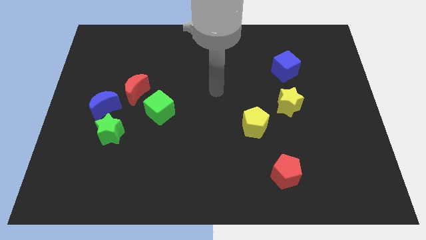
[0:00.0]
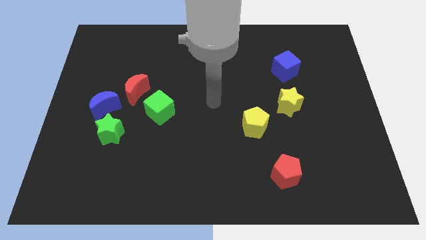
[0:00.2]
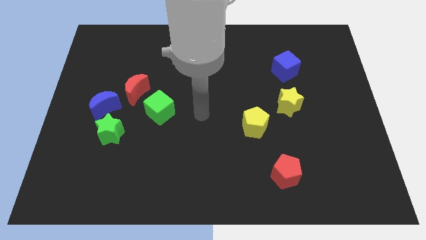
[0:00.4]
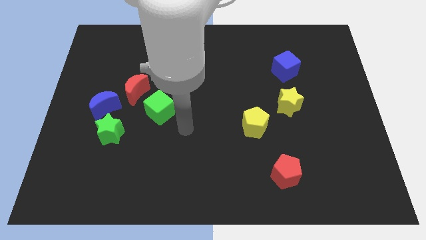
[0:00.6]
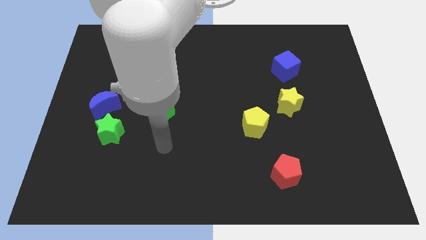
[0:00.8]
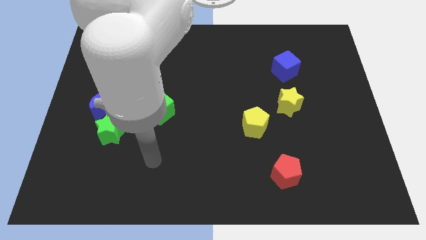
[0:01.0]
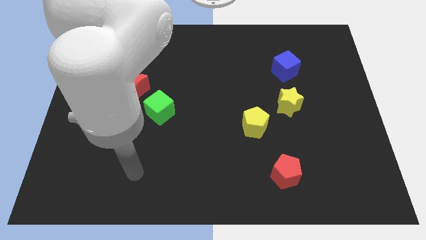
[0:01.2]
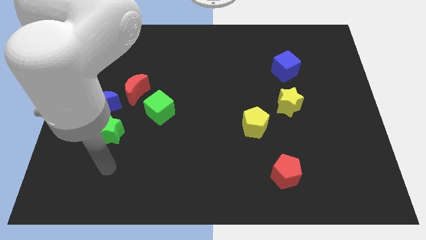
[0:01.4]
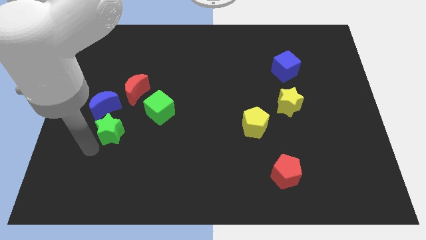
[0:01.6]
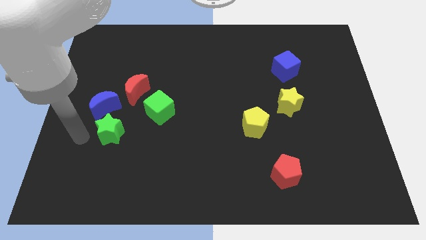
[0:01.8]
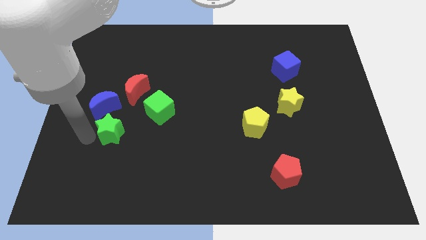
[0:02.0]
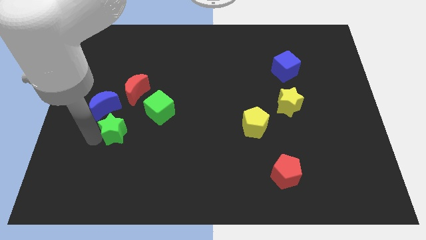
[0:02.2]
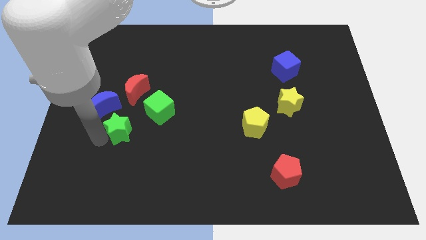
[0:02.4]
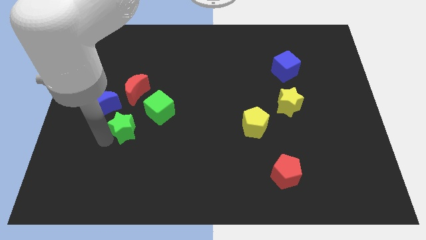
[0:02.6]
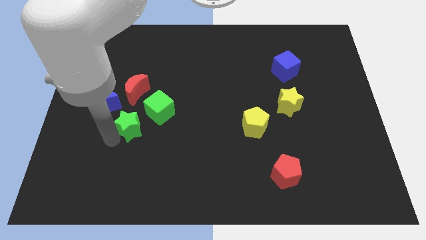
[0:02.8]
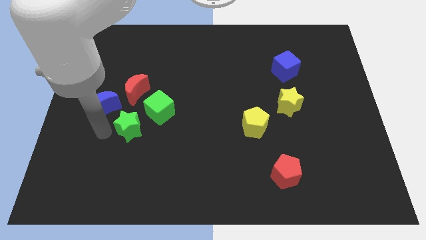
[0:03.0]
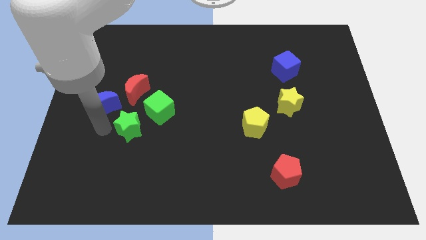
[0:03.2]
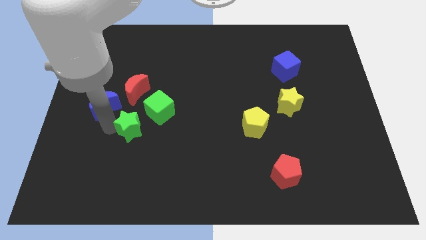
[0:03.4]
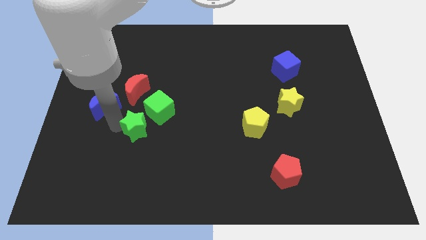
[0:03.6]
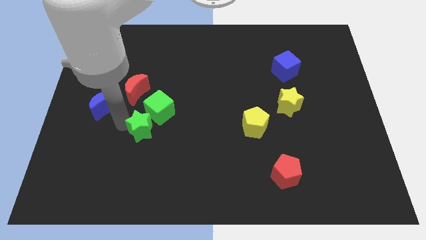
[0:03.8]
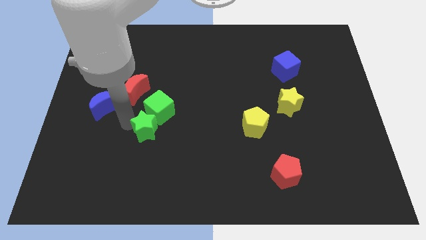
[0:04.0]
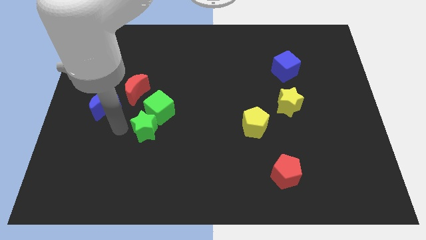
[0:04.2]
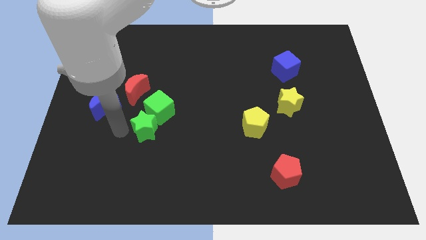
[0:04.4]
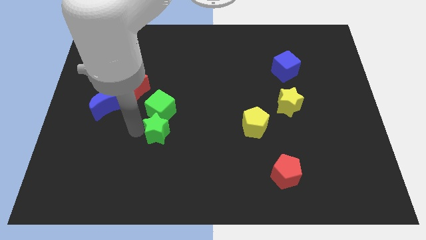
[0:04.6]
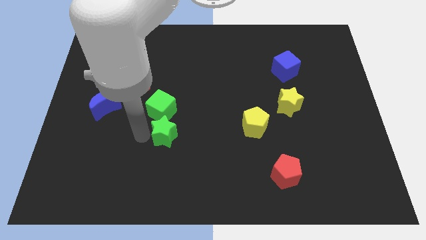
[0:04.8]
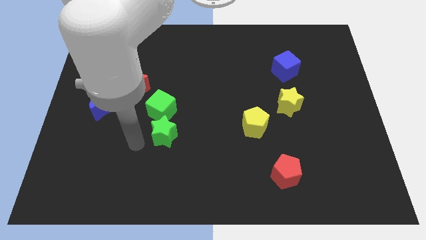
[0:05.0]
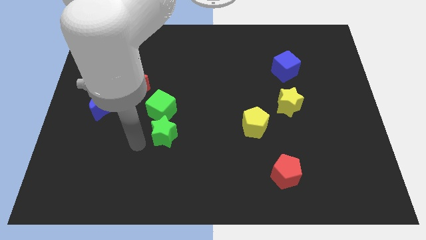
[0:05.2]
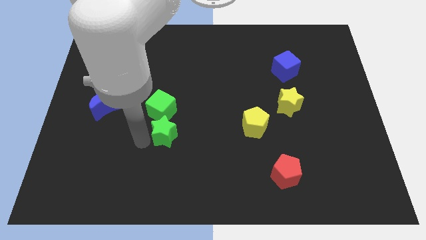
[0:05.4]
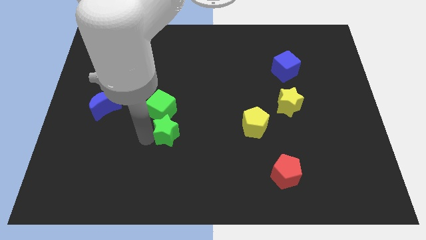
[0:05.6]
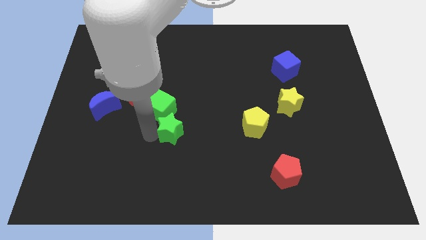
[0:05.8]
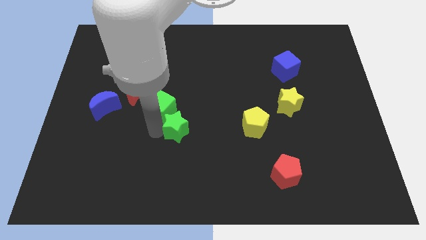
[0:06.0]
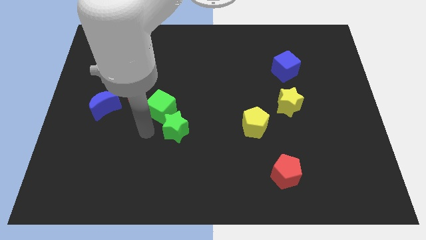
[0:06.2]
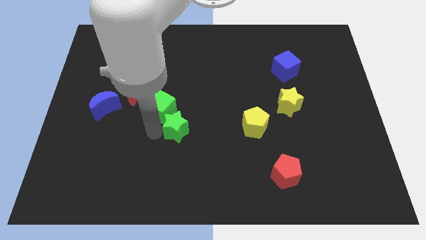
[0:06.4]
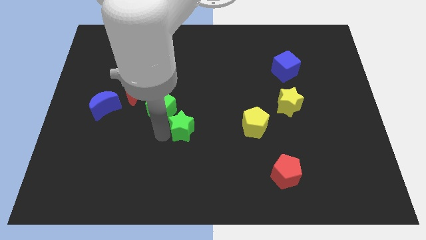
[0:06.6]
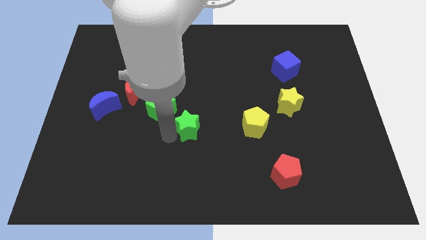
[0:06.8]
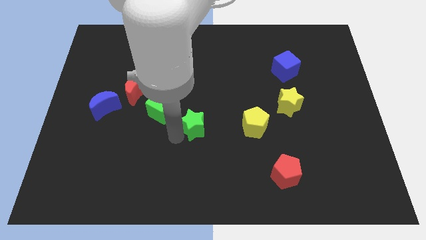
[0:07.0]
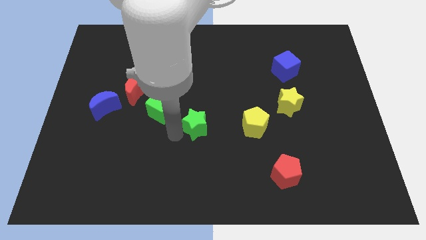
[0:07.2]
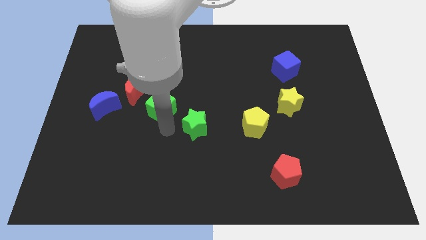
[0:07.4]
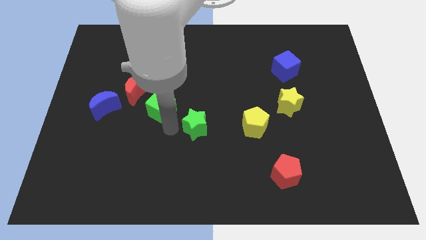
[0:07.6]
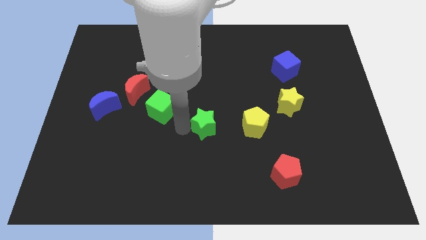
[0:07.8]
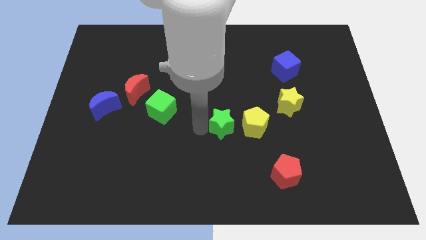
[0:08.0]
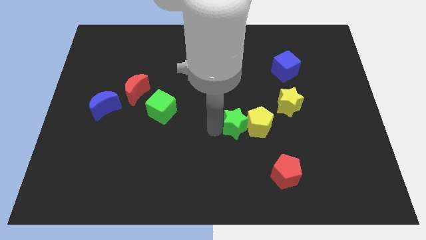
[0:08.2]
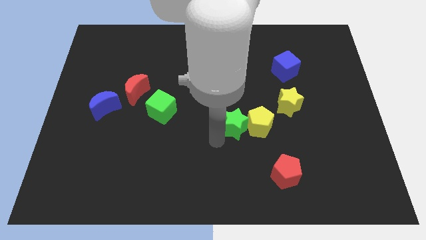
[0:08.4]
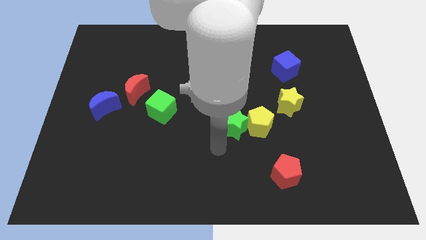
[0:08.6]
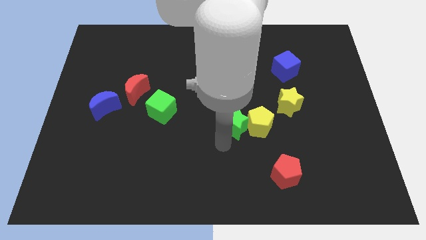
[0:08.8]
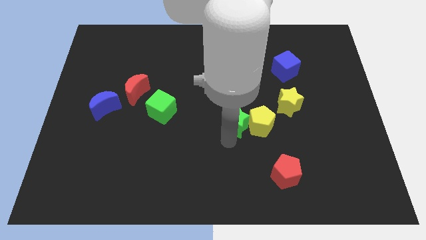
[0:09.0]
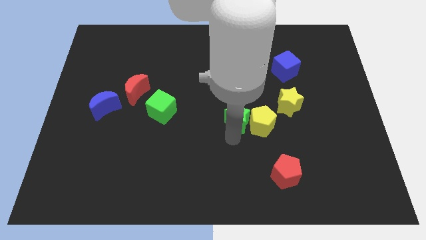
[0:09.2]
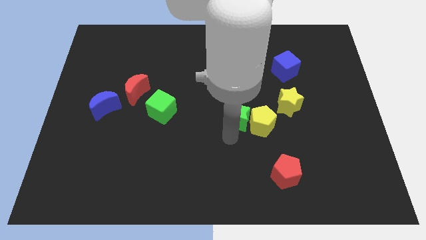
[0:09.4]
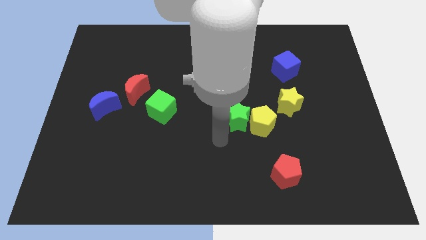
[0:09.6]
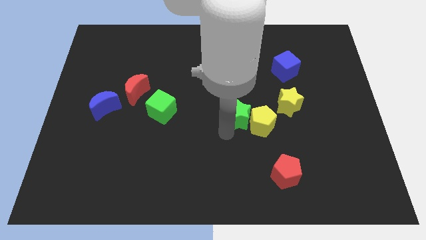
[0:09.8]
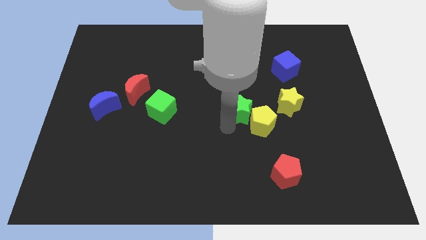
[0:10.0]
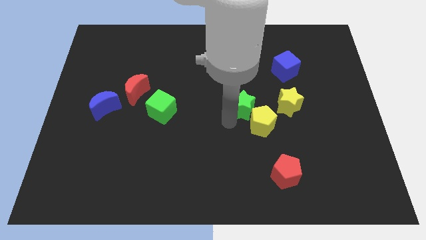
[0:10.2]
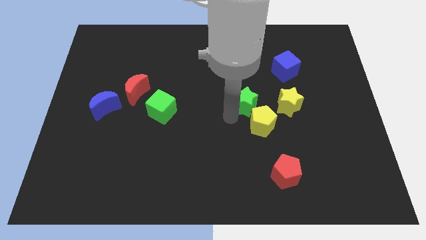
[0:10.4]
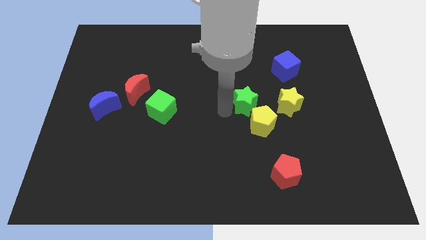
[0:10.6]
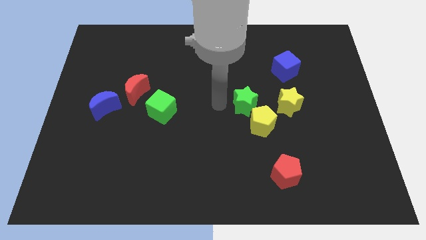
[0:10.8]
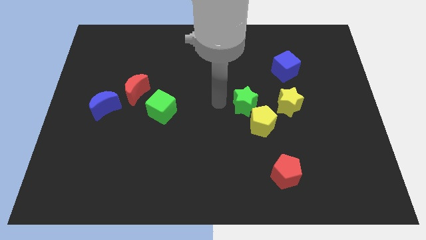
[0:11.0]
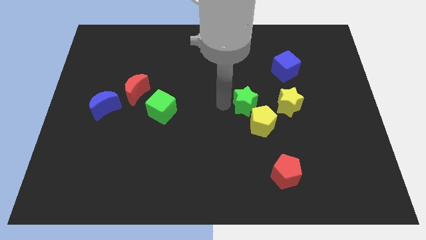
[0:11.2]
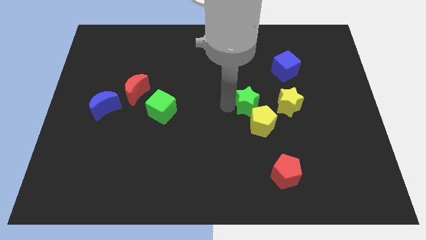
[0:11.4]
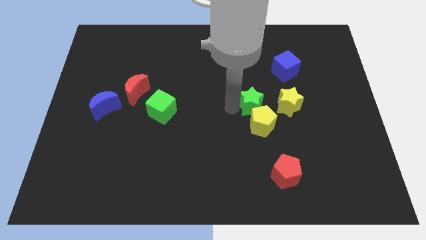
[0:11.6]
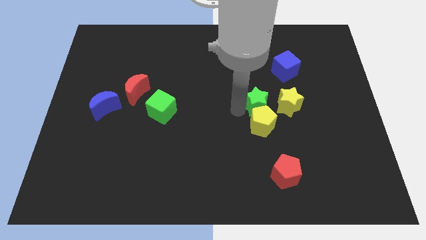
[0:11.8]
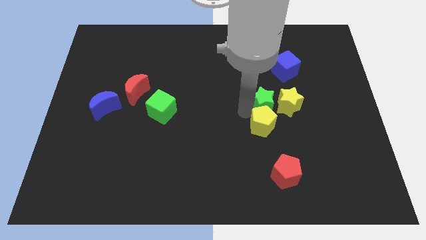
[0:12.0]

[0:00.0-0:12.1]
move the green star close to the yellow star

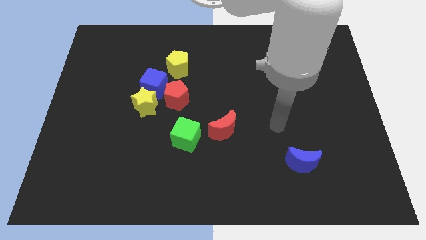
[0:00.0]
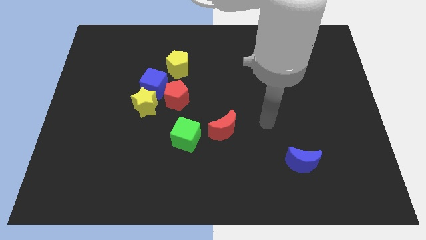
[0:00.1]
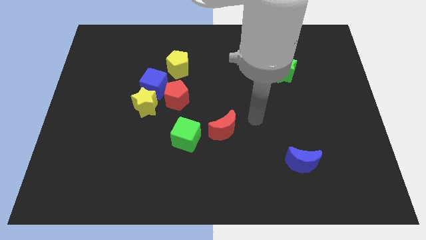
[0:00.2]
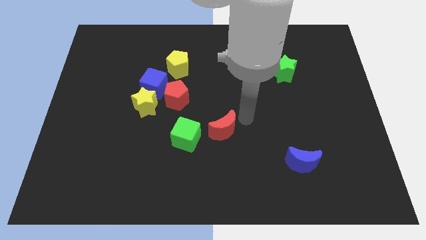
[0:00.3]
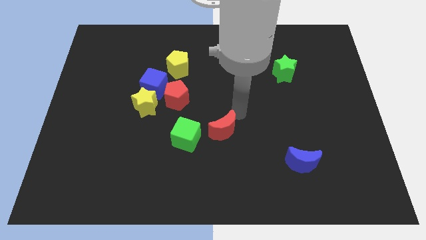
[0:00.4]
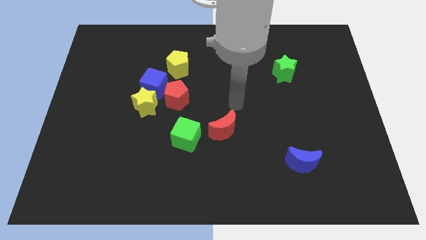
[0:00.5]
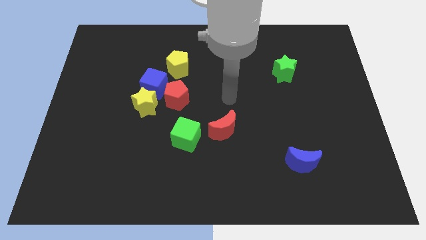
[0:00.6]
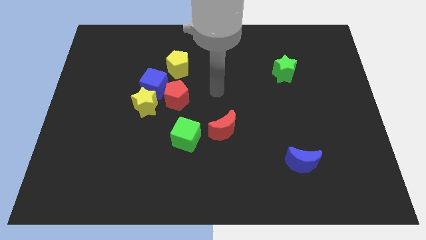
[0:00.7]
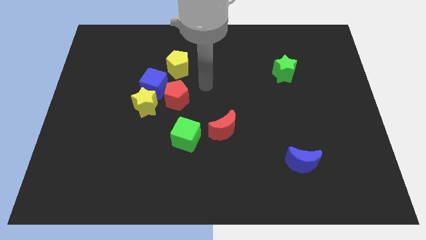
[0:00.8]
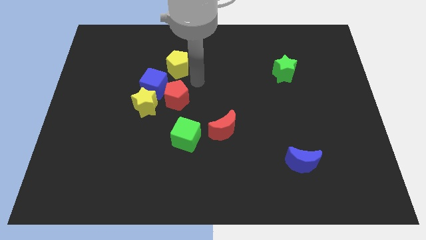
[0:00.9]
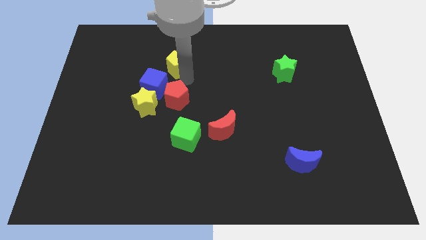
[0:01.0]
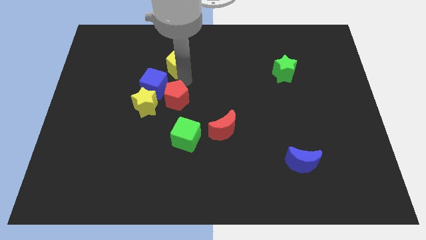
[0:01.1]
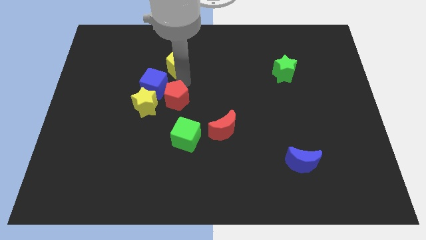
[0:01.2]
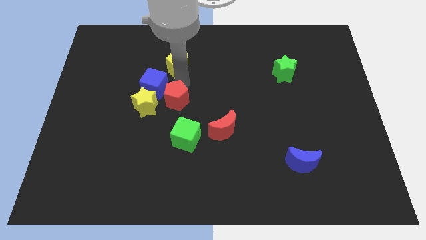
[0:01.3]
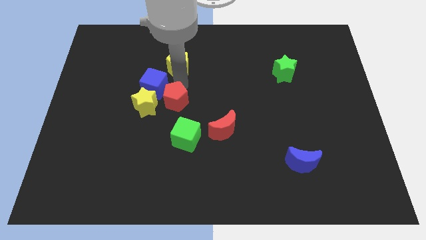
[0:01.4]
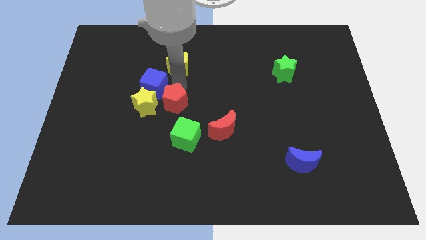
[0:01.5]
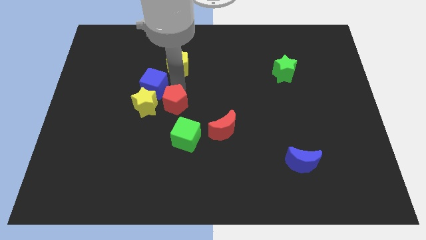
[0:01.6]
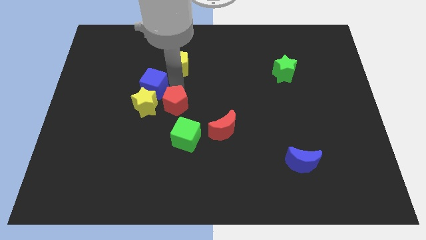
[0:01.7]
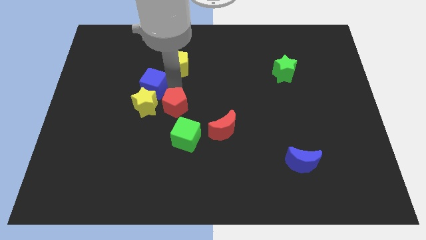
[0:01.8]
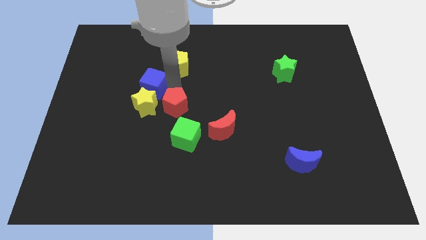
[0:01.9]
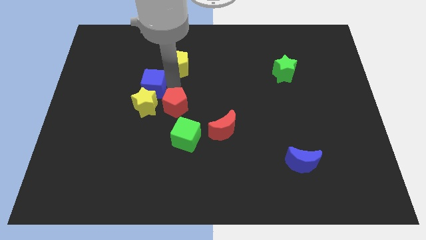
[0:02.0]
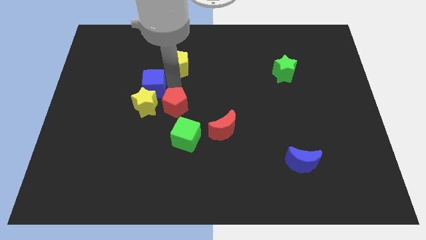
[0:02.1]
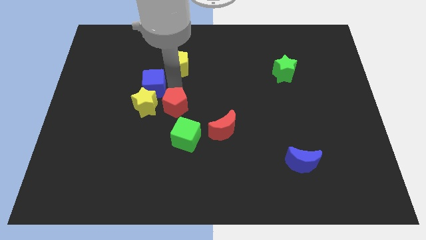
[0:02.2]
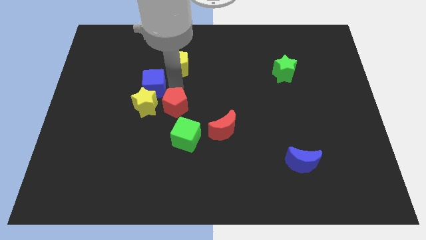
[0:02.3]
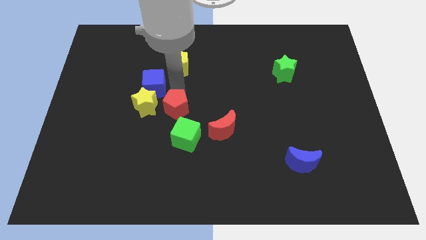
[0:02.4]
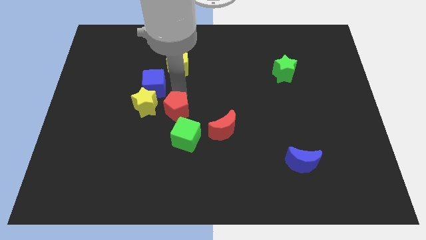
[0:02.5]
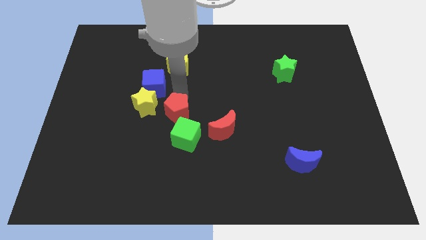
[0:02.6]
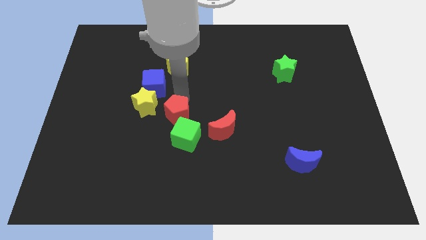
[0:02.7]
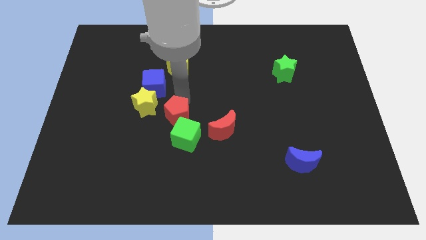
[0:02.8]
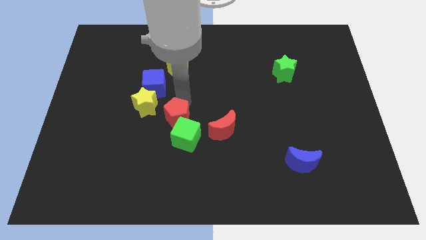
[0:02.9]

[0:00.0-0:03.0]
put the red pentagon next to the green cube
